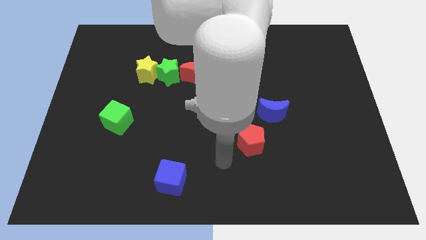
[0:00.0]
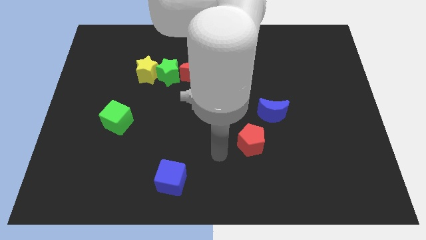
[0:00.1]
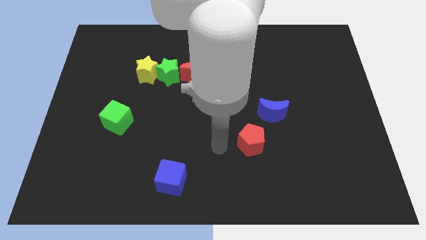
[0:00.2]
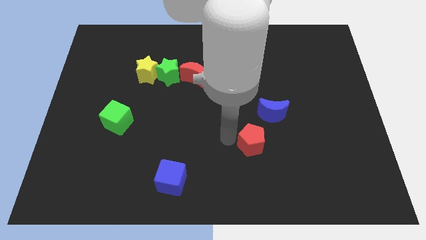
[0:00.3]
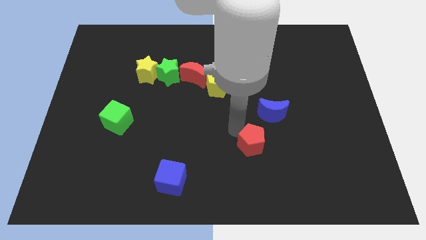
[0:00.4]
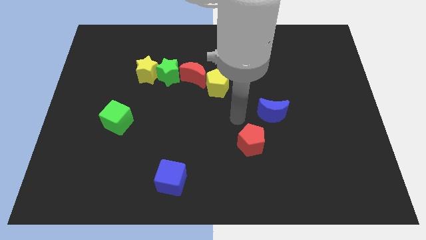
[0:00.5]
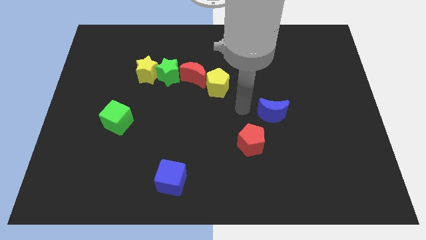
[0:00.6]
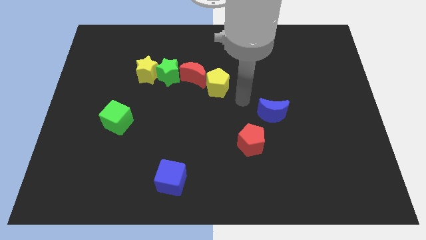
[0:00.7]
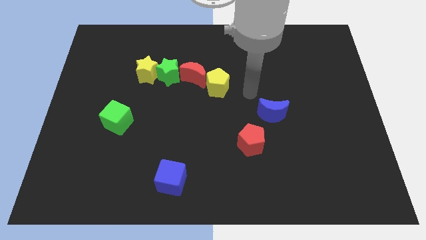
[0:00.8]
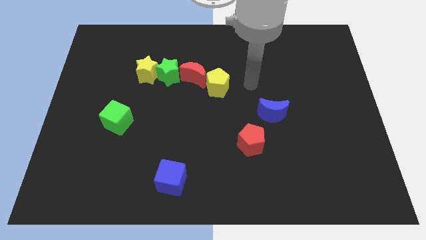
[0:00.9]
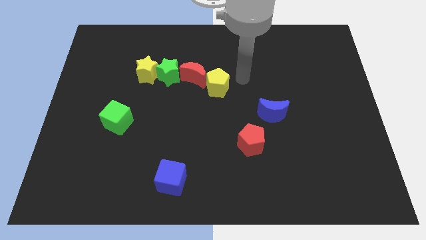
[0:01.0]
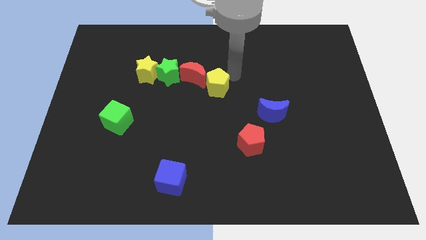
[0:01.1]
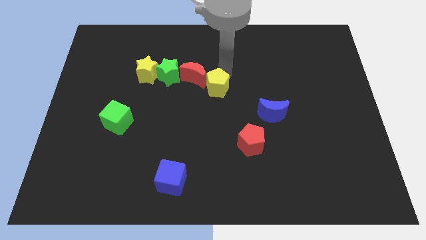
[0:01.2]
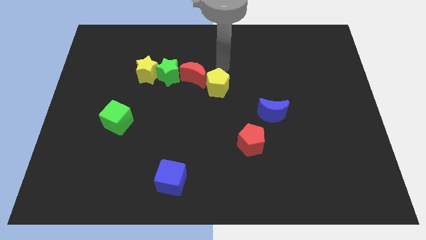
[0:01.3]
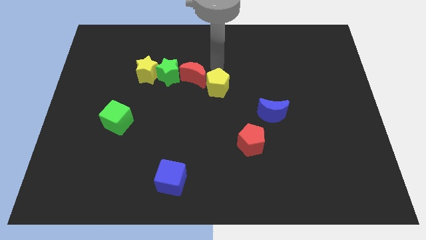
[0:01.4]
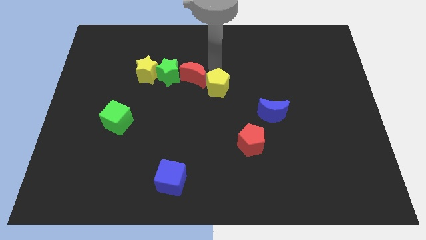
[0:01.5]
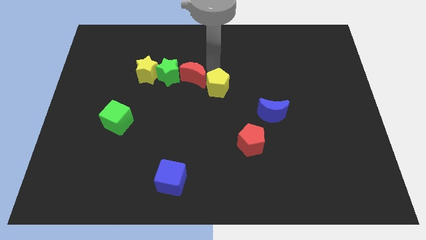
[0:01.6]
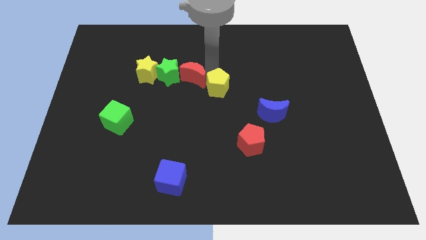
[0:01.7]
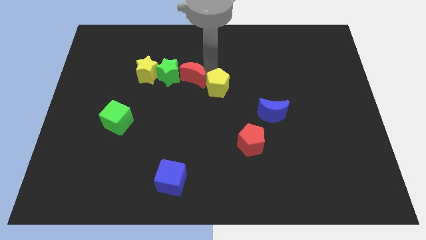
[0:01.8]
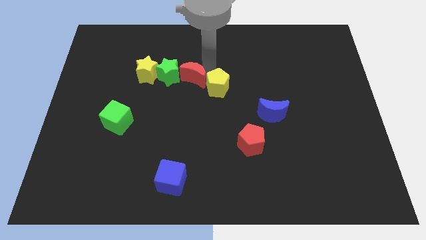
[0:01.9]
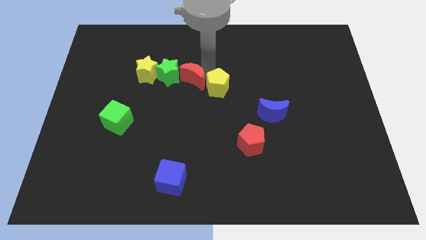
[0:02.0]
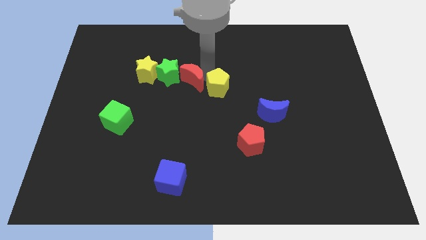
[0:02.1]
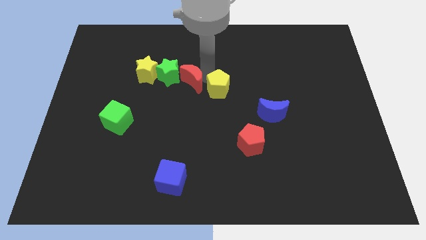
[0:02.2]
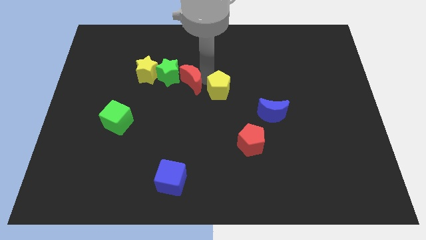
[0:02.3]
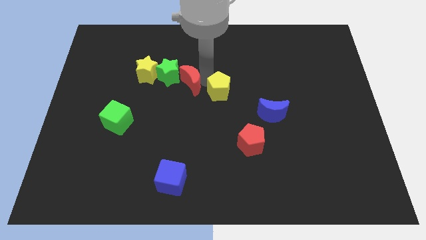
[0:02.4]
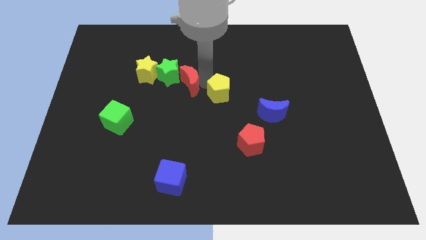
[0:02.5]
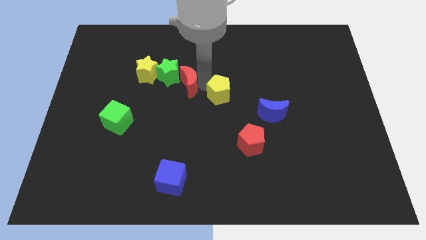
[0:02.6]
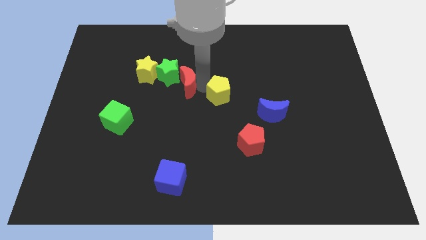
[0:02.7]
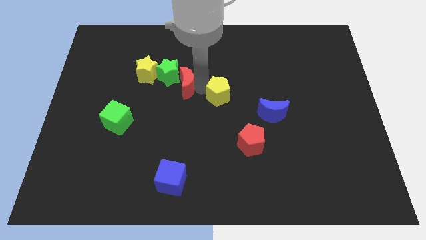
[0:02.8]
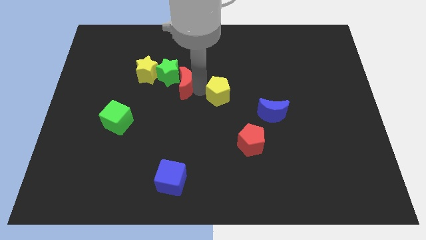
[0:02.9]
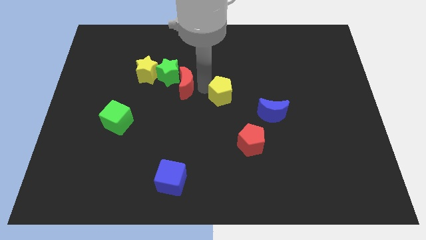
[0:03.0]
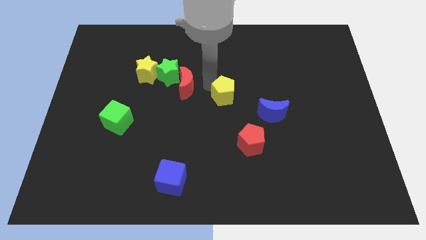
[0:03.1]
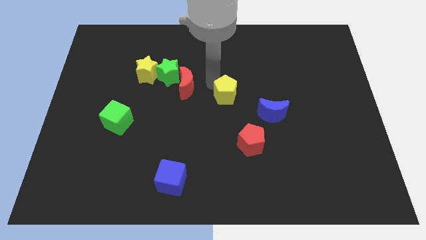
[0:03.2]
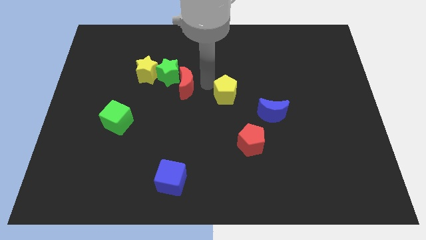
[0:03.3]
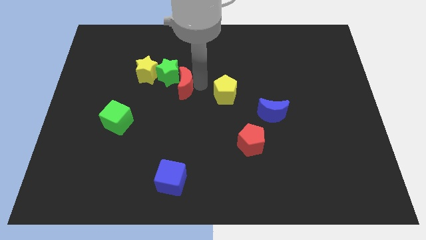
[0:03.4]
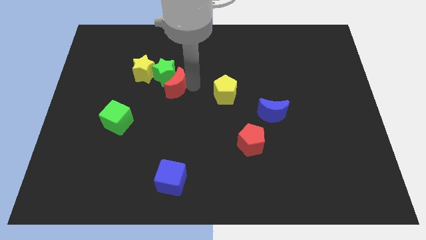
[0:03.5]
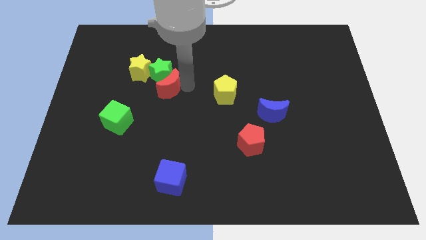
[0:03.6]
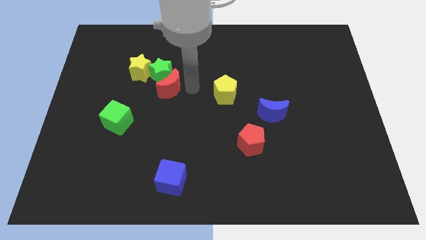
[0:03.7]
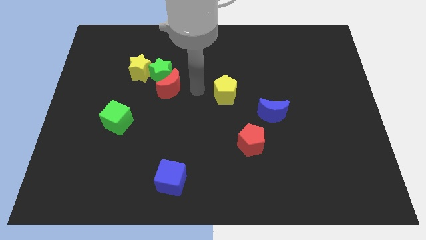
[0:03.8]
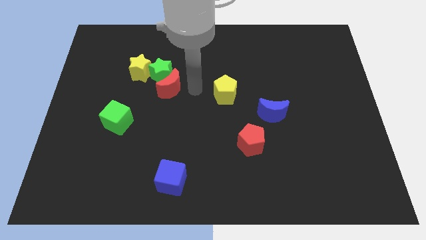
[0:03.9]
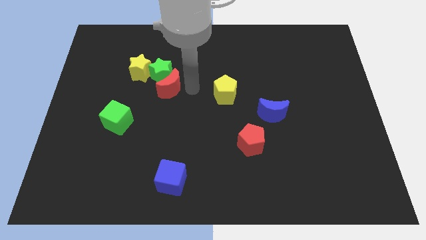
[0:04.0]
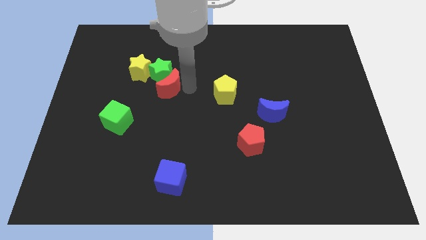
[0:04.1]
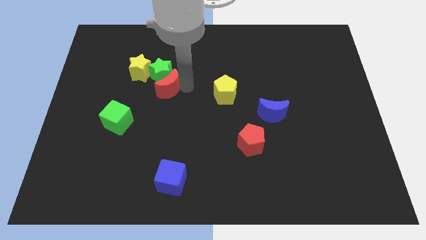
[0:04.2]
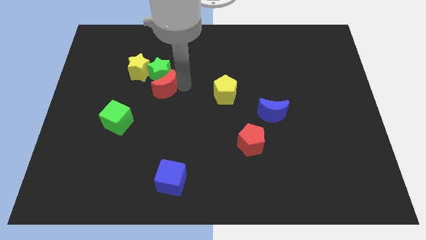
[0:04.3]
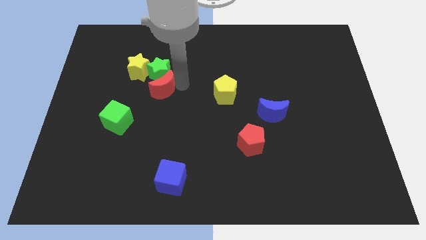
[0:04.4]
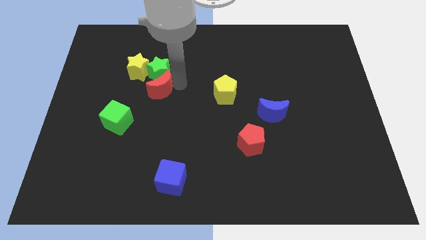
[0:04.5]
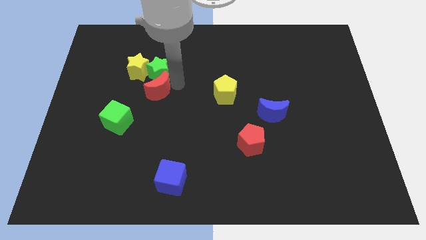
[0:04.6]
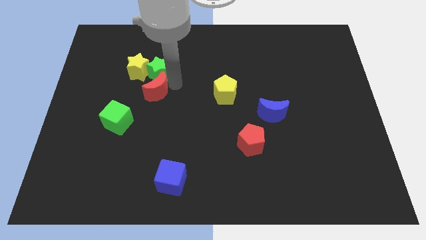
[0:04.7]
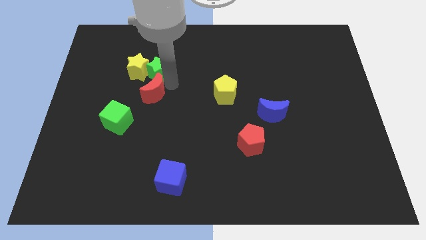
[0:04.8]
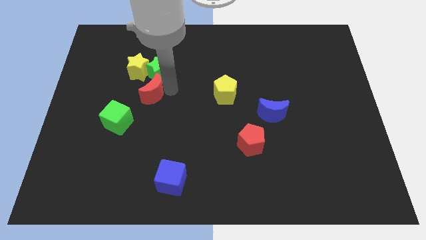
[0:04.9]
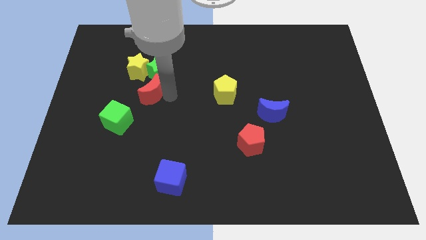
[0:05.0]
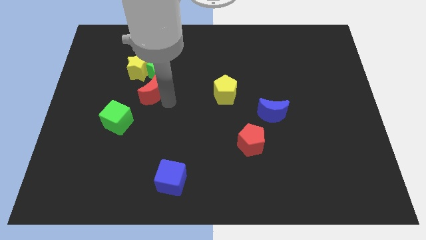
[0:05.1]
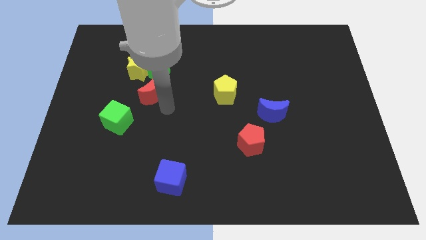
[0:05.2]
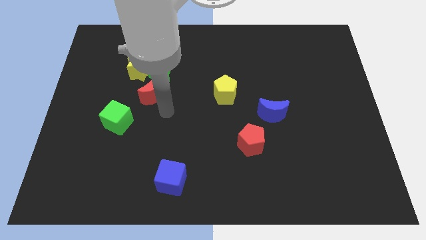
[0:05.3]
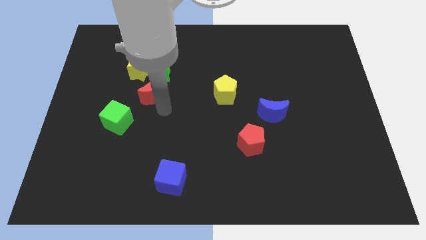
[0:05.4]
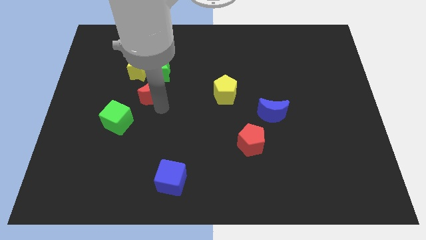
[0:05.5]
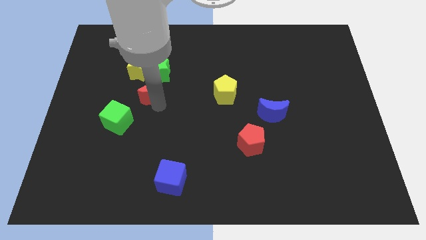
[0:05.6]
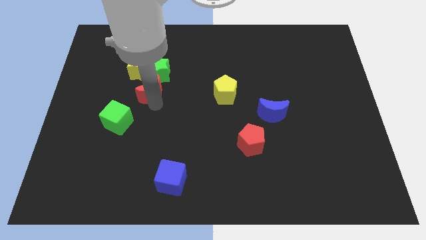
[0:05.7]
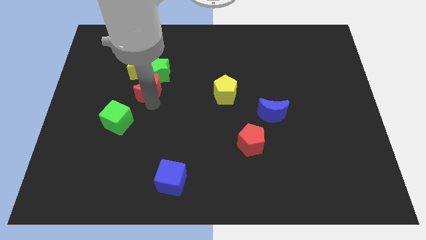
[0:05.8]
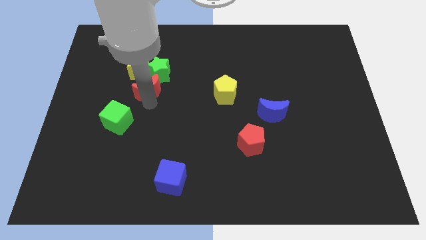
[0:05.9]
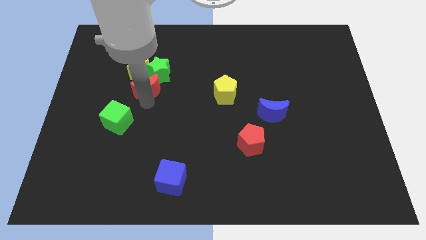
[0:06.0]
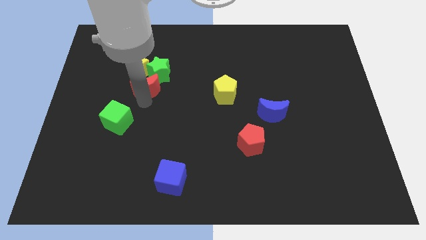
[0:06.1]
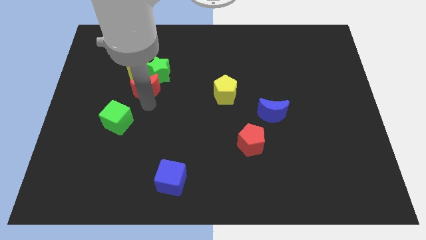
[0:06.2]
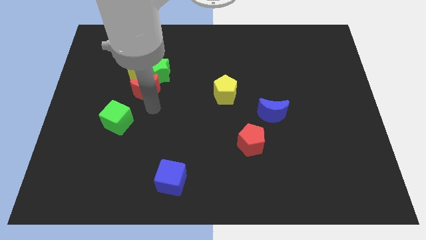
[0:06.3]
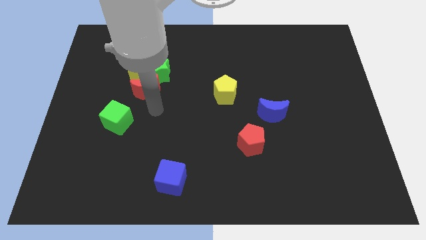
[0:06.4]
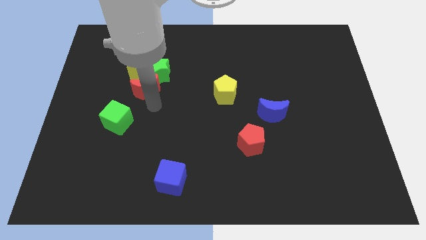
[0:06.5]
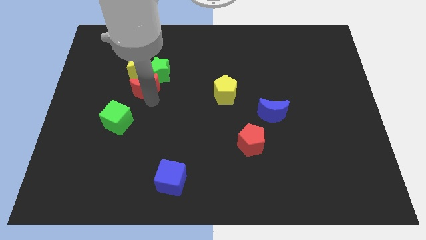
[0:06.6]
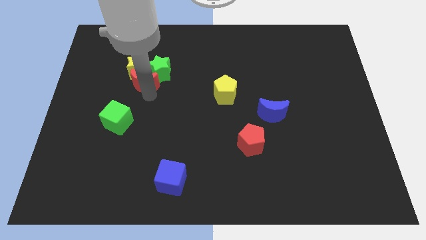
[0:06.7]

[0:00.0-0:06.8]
slide the red moon next to the yellow star

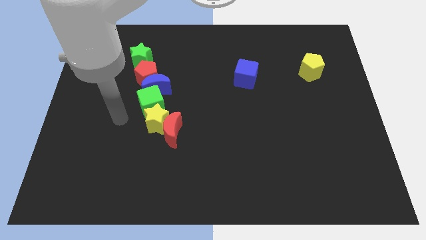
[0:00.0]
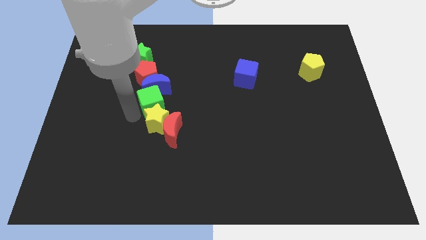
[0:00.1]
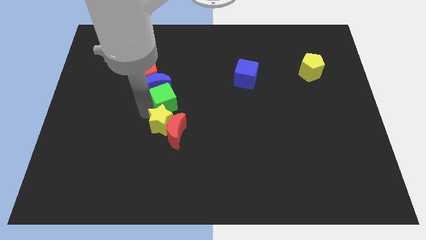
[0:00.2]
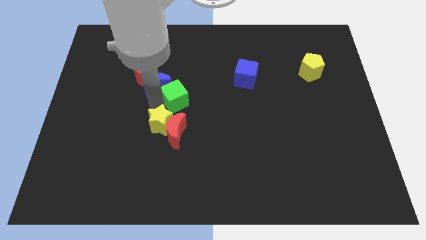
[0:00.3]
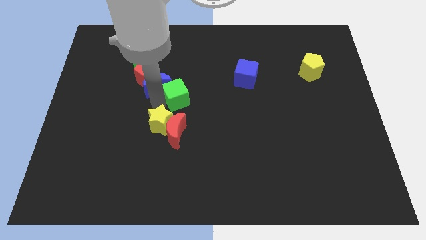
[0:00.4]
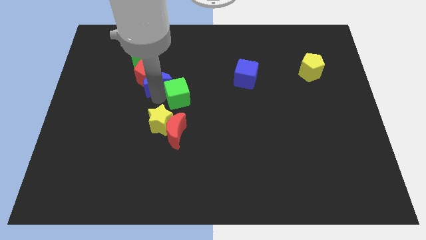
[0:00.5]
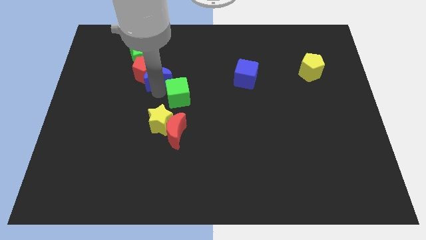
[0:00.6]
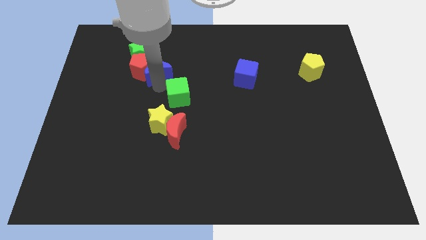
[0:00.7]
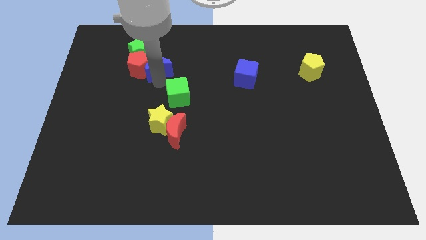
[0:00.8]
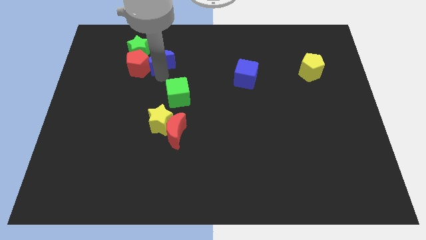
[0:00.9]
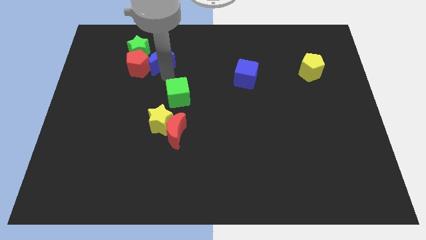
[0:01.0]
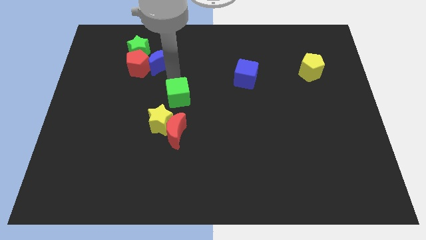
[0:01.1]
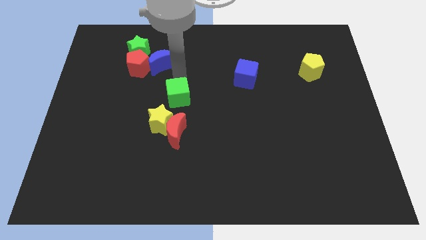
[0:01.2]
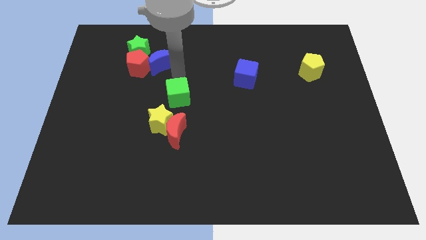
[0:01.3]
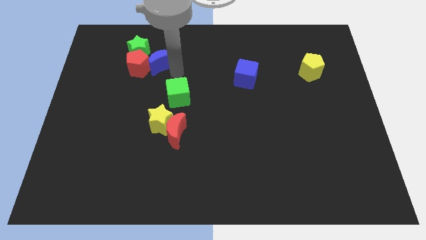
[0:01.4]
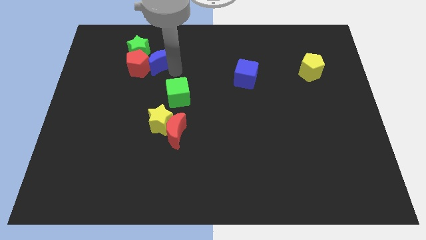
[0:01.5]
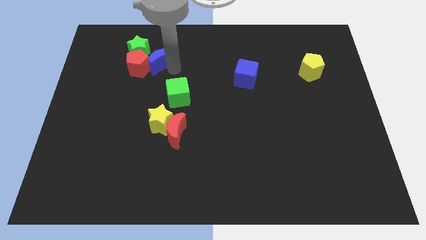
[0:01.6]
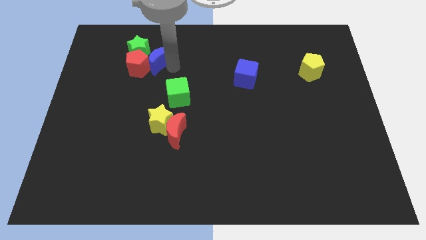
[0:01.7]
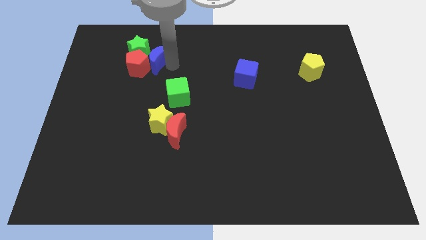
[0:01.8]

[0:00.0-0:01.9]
put the blue moon next to the green star
